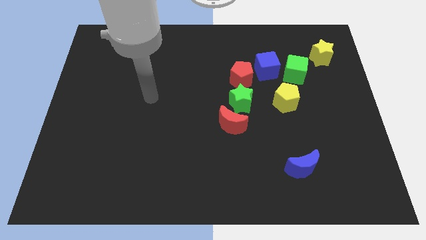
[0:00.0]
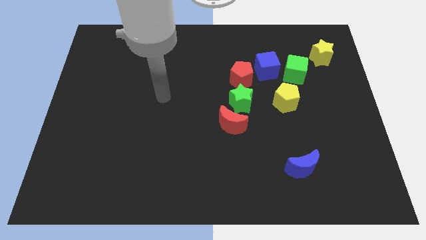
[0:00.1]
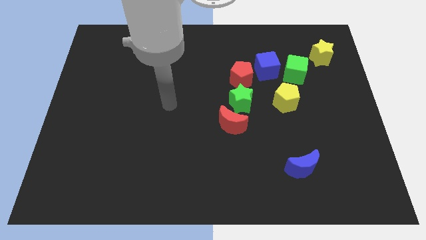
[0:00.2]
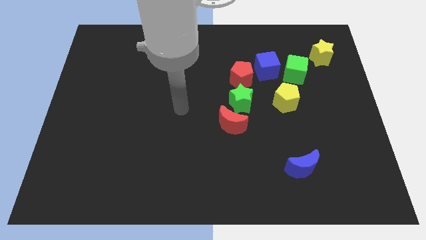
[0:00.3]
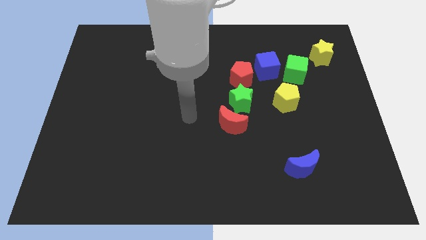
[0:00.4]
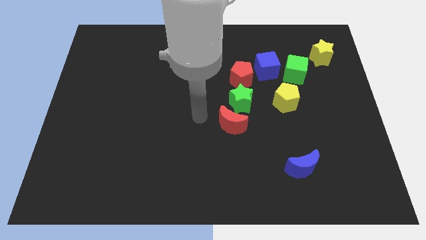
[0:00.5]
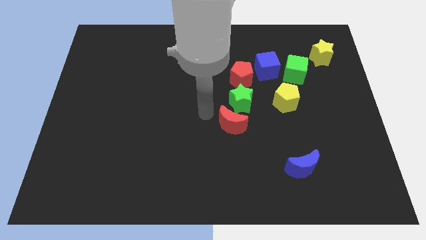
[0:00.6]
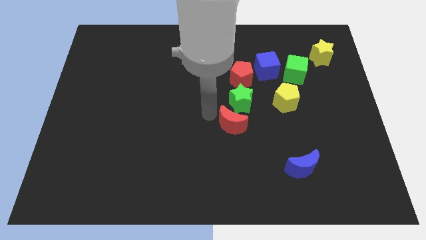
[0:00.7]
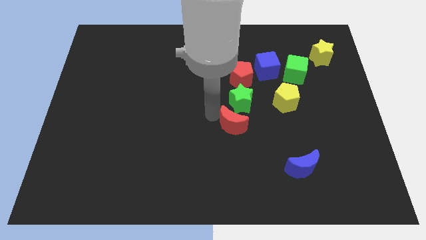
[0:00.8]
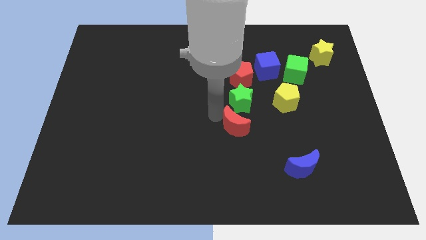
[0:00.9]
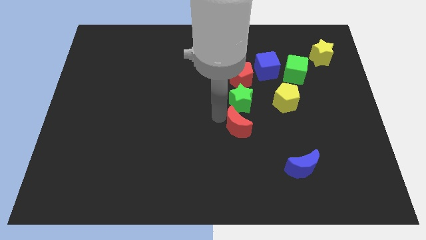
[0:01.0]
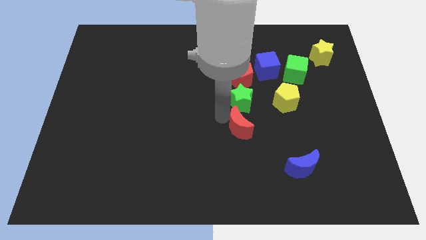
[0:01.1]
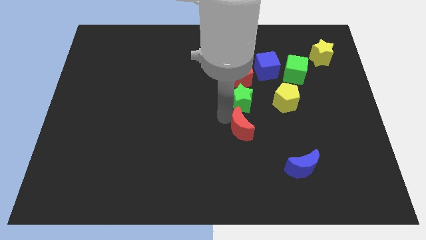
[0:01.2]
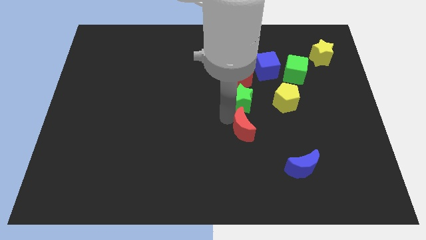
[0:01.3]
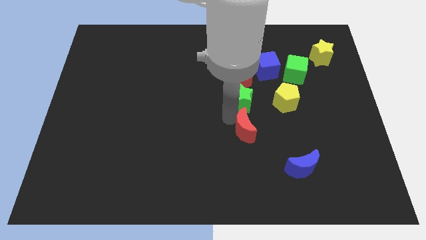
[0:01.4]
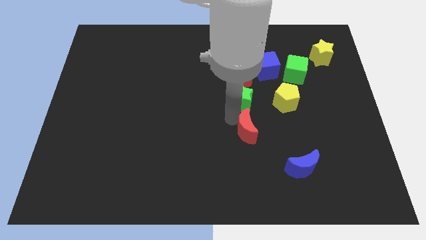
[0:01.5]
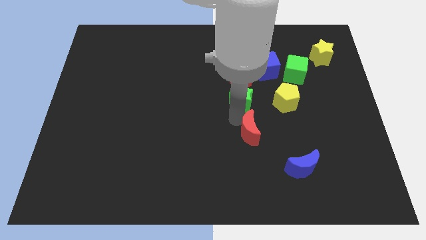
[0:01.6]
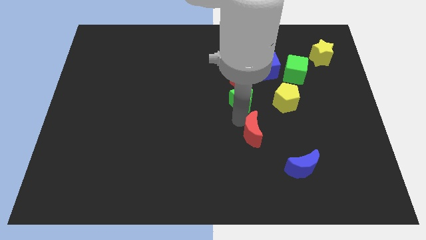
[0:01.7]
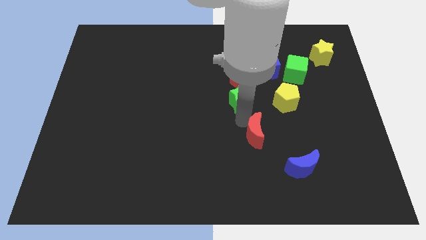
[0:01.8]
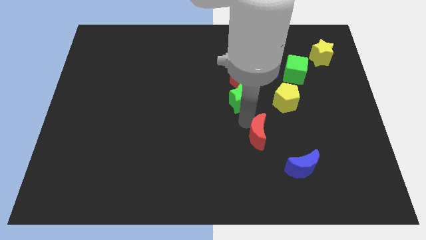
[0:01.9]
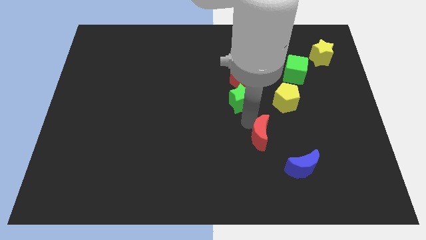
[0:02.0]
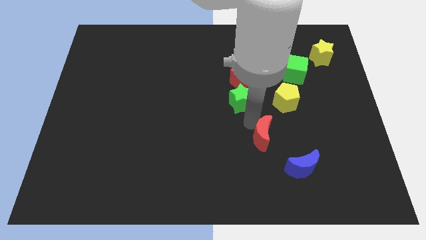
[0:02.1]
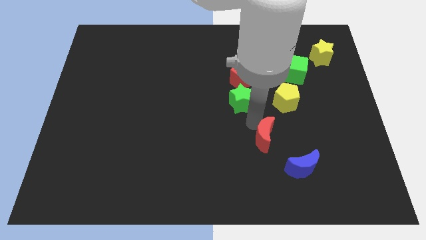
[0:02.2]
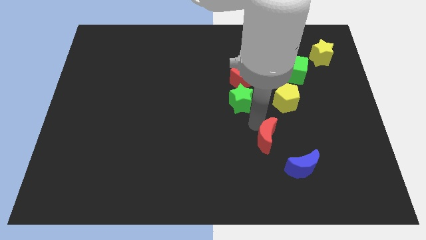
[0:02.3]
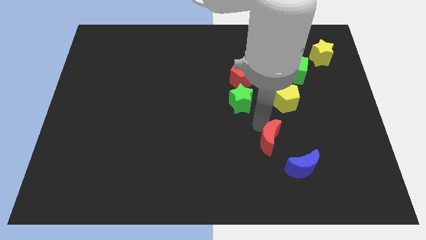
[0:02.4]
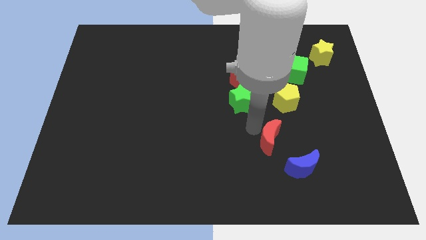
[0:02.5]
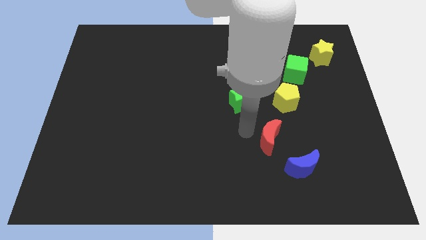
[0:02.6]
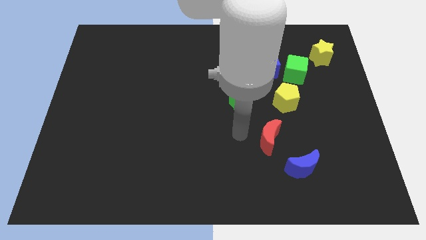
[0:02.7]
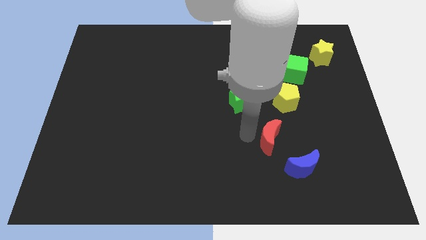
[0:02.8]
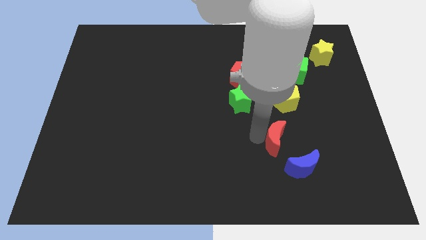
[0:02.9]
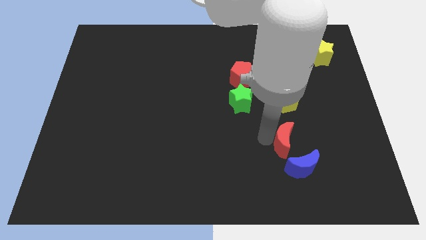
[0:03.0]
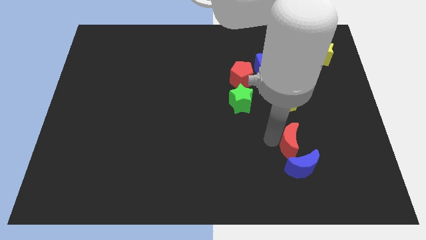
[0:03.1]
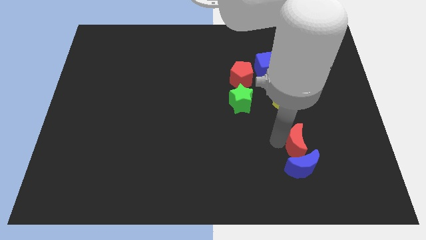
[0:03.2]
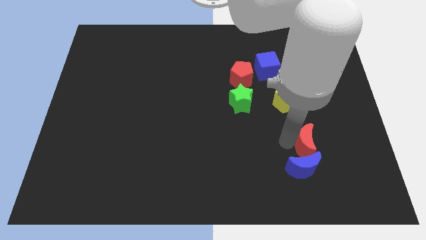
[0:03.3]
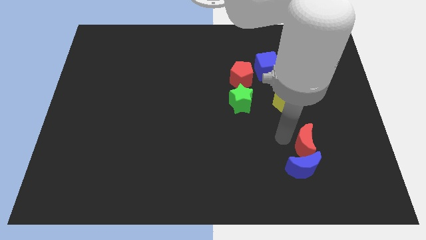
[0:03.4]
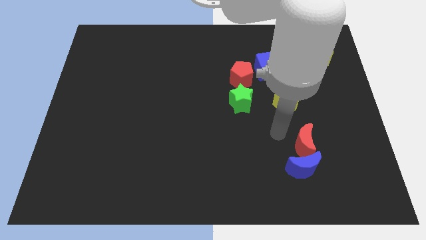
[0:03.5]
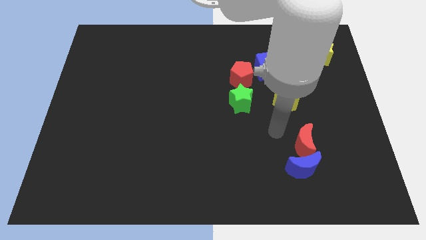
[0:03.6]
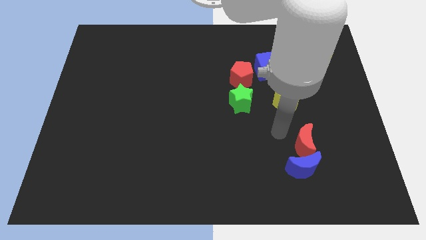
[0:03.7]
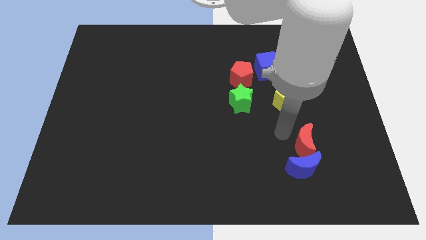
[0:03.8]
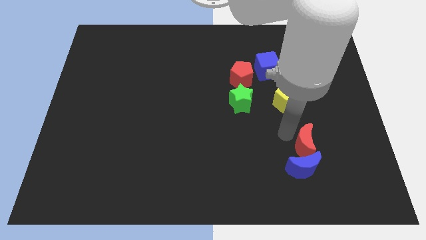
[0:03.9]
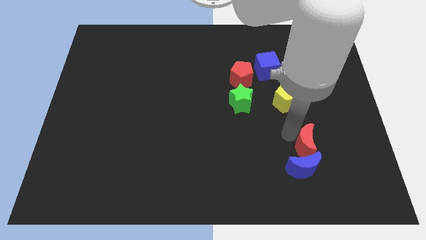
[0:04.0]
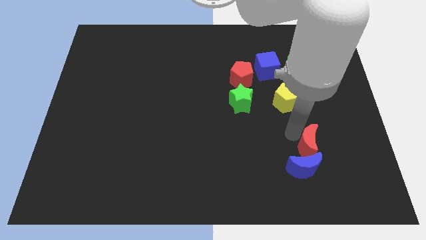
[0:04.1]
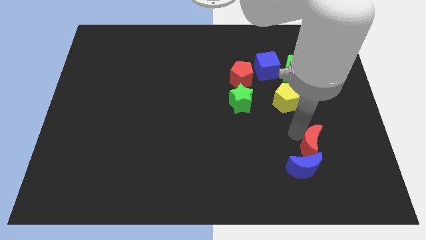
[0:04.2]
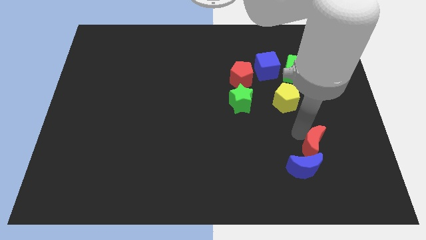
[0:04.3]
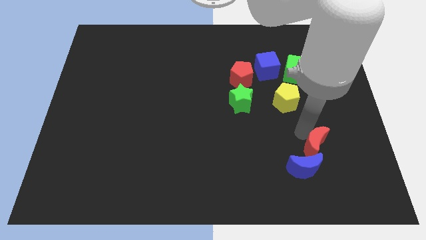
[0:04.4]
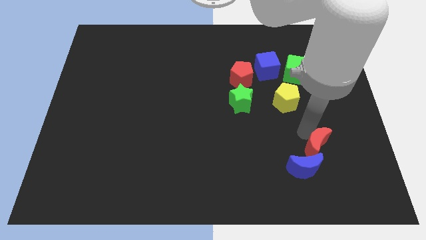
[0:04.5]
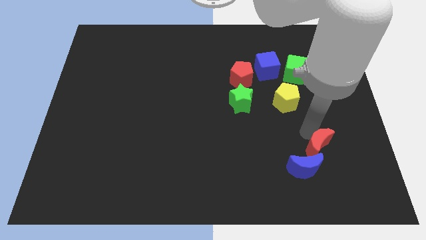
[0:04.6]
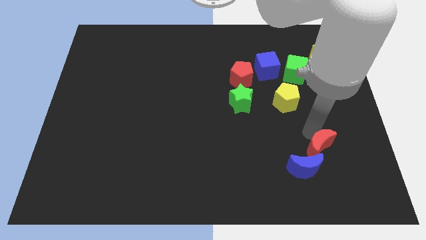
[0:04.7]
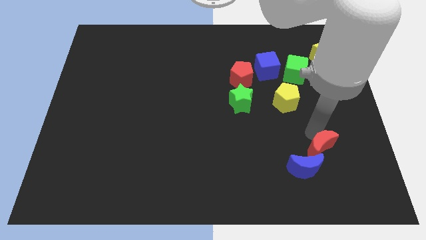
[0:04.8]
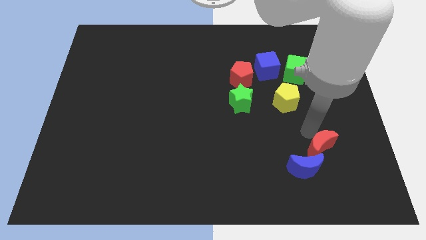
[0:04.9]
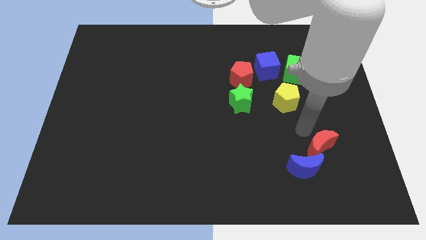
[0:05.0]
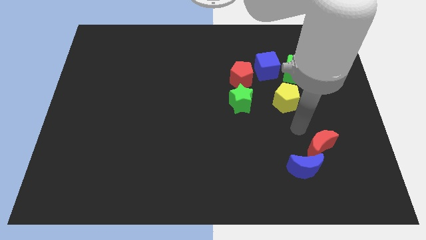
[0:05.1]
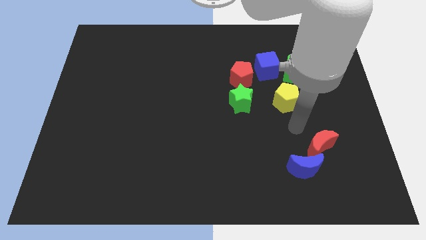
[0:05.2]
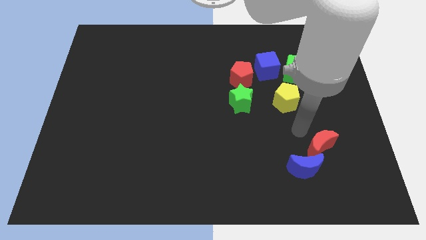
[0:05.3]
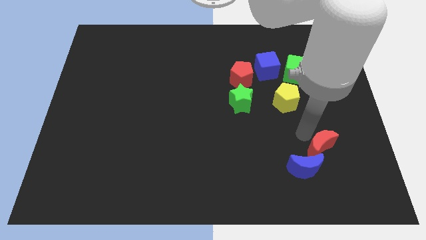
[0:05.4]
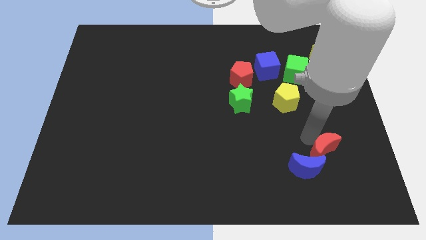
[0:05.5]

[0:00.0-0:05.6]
put the red moon to the right of the blue moon

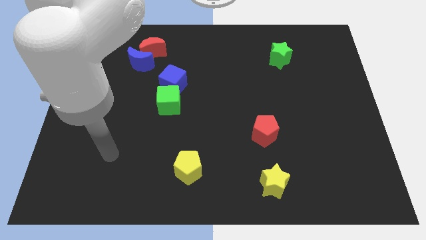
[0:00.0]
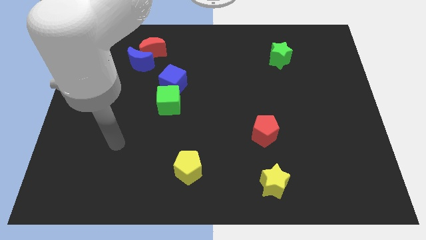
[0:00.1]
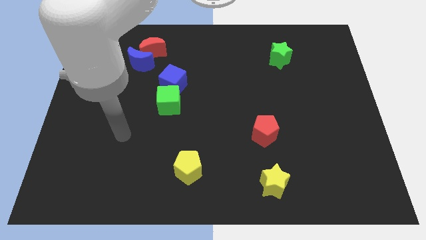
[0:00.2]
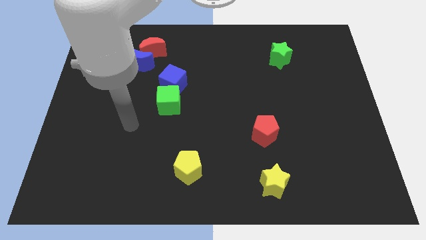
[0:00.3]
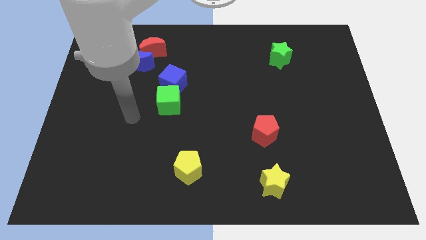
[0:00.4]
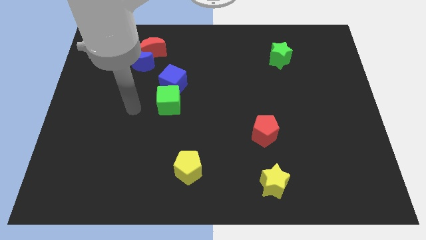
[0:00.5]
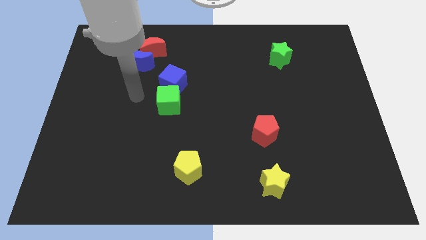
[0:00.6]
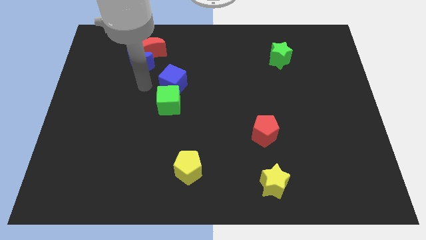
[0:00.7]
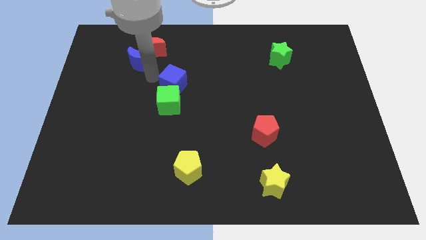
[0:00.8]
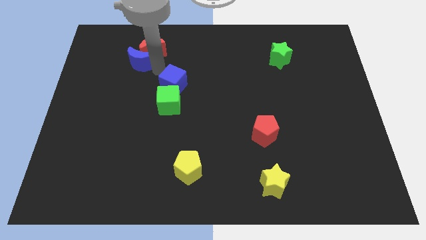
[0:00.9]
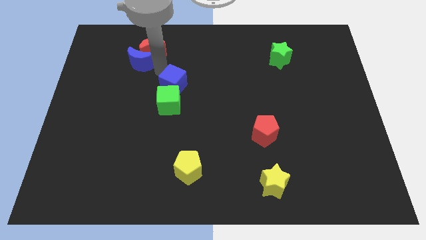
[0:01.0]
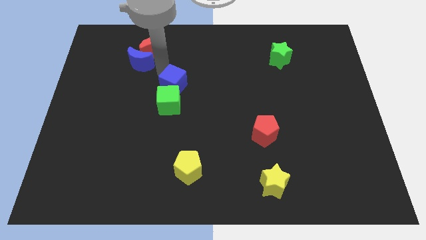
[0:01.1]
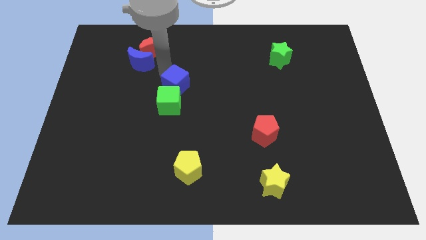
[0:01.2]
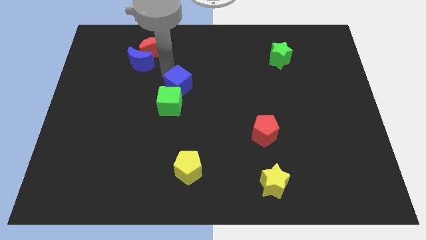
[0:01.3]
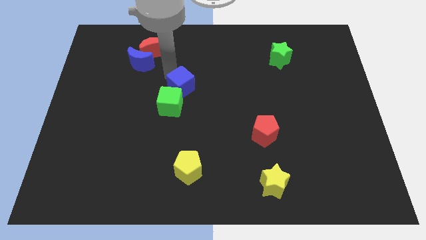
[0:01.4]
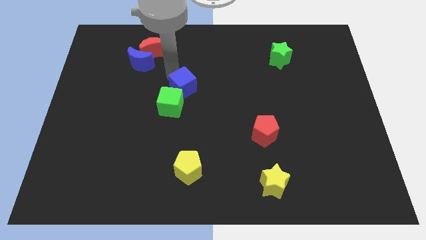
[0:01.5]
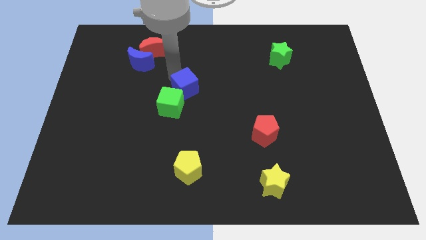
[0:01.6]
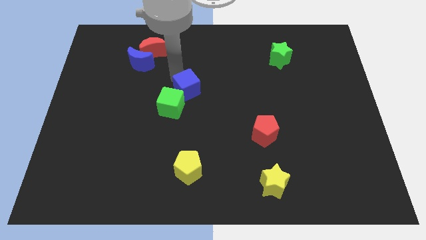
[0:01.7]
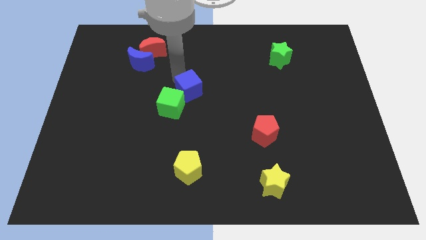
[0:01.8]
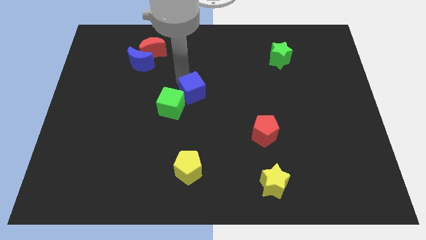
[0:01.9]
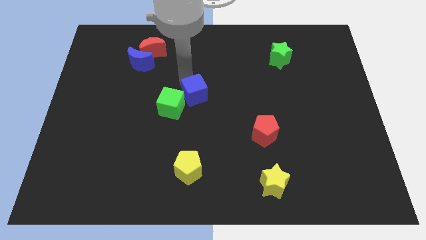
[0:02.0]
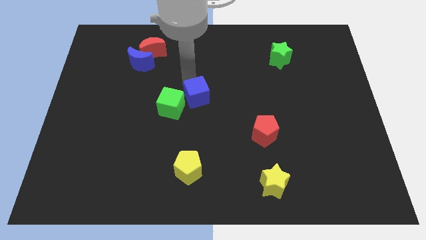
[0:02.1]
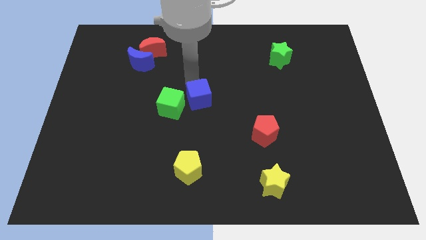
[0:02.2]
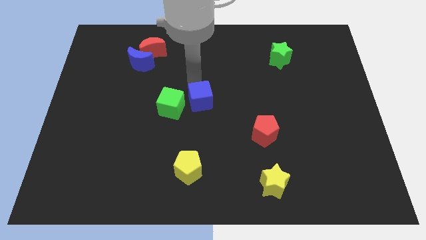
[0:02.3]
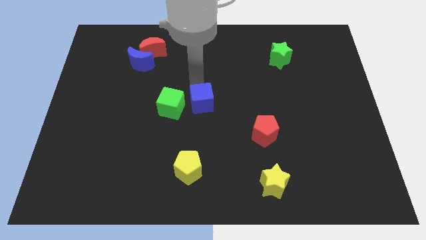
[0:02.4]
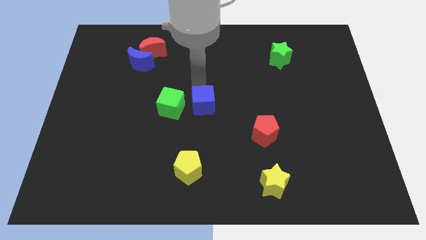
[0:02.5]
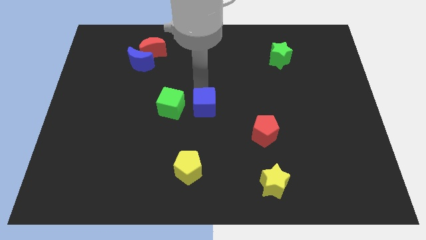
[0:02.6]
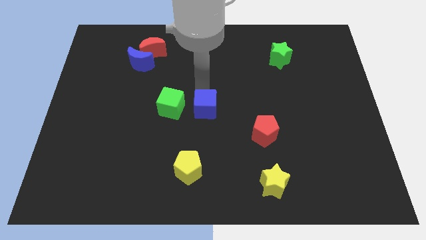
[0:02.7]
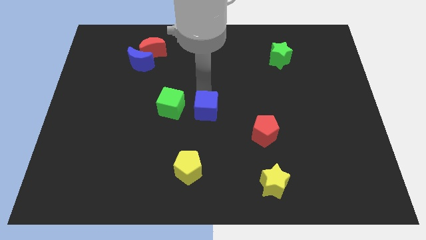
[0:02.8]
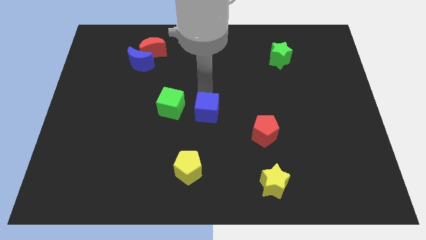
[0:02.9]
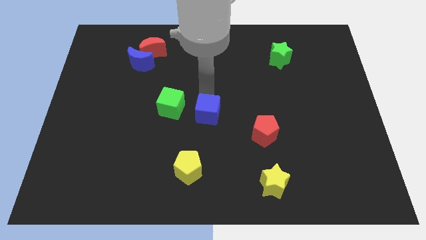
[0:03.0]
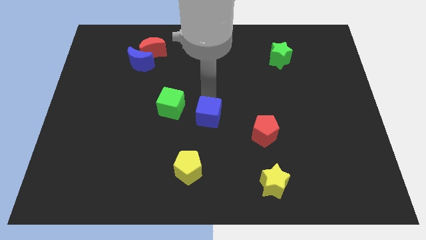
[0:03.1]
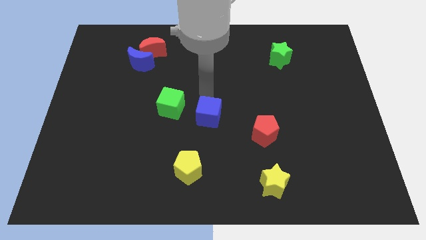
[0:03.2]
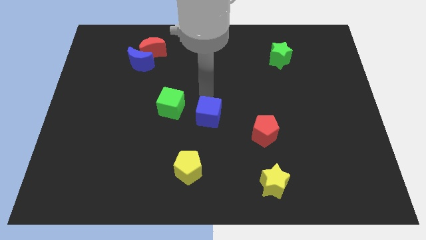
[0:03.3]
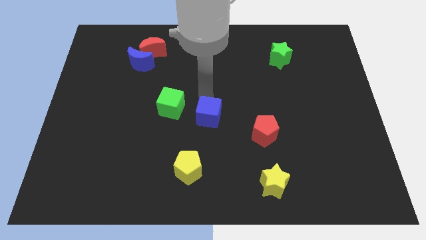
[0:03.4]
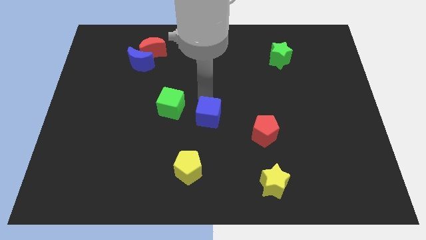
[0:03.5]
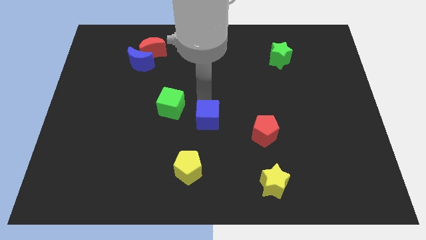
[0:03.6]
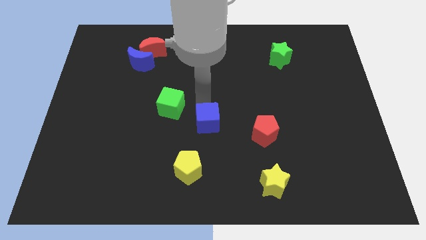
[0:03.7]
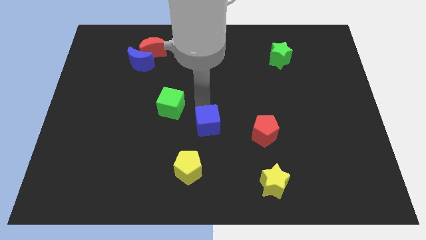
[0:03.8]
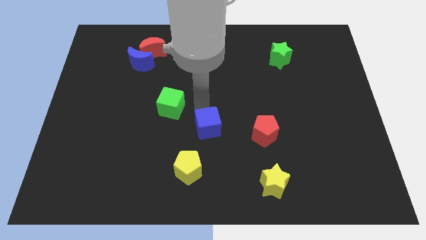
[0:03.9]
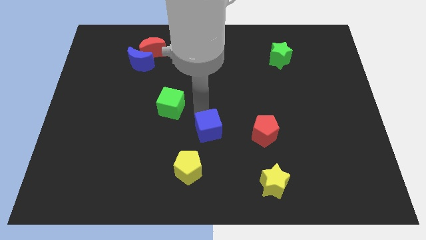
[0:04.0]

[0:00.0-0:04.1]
push the blue cube to the top right of the yellow pentagon
